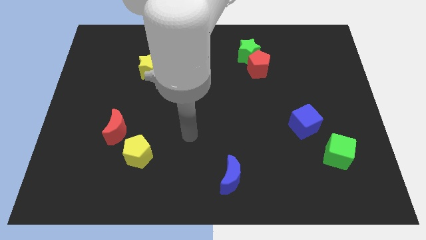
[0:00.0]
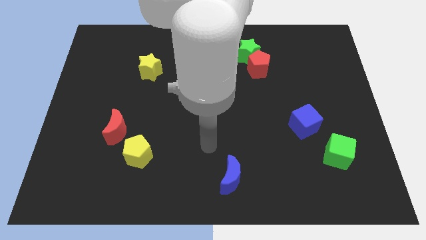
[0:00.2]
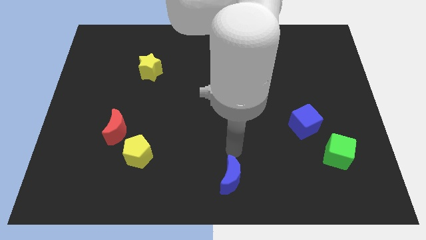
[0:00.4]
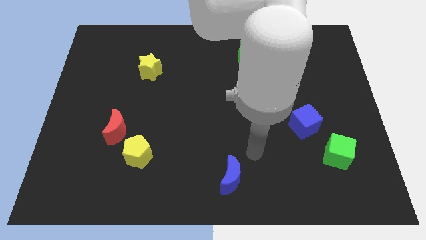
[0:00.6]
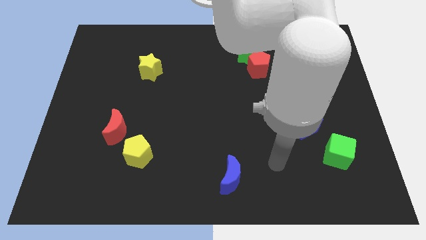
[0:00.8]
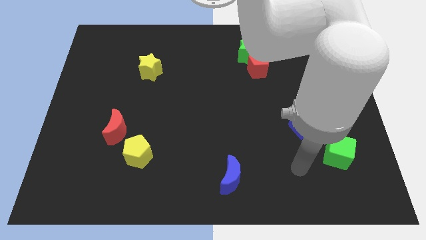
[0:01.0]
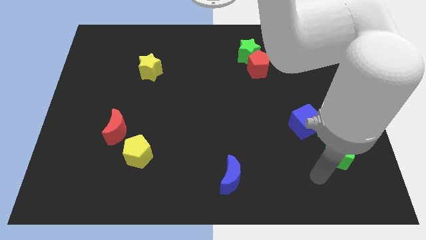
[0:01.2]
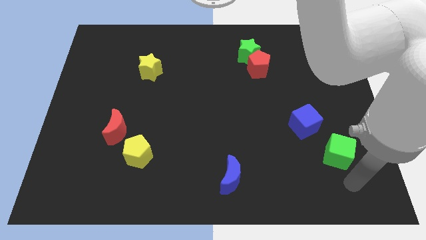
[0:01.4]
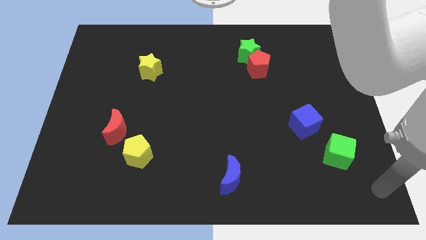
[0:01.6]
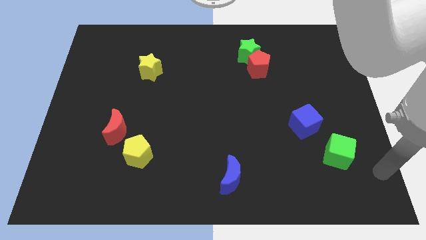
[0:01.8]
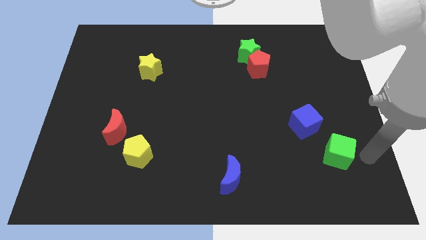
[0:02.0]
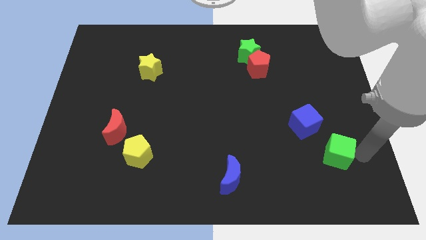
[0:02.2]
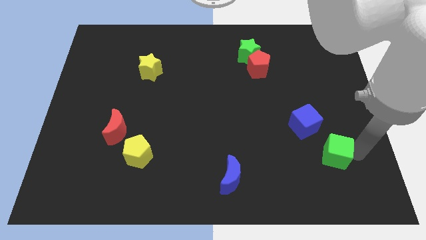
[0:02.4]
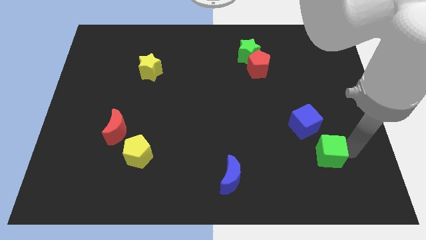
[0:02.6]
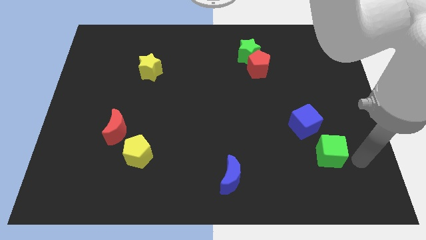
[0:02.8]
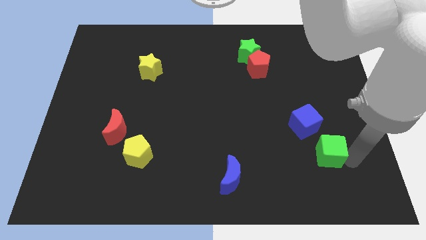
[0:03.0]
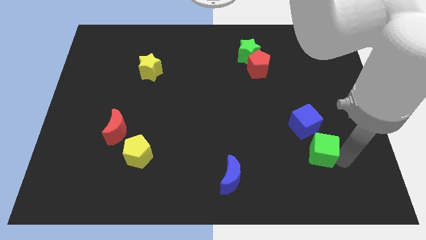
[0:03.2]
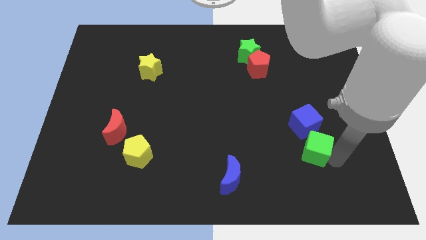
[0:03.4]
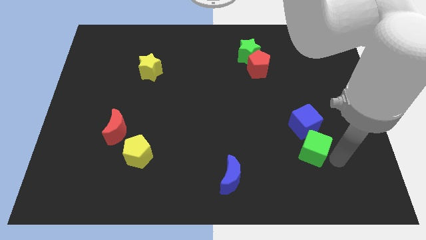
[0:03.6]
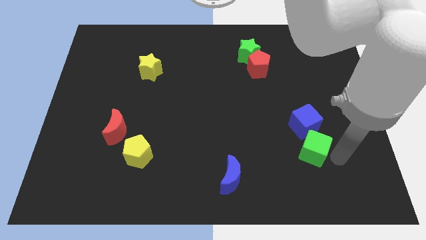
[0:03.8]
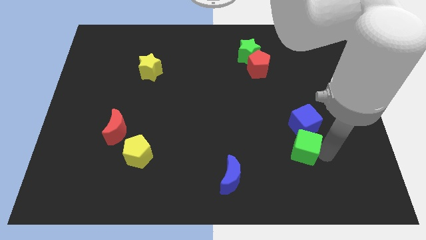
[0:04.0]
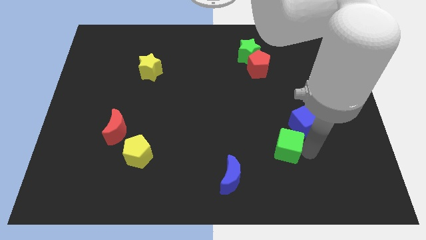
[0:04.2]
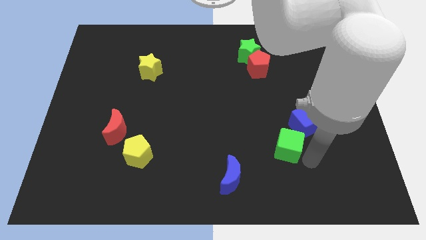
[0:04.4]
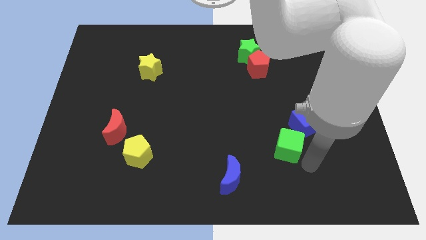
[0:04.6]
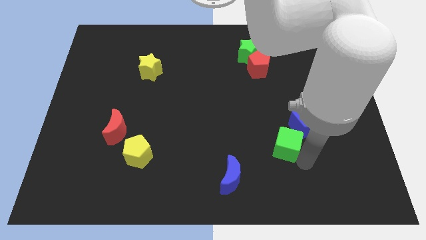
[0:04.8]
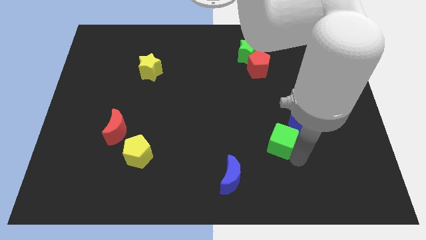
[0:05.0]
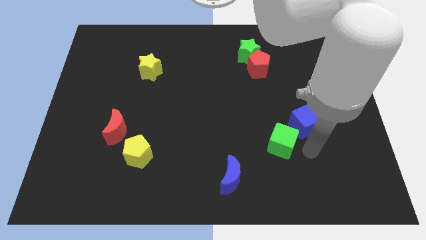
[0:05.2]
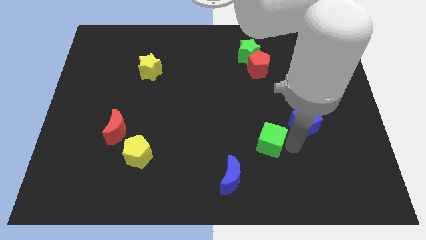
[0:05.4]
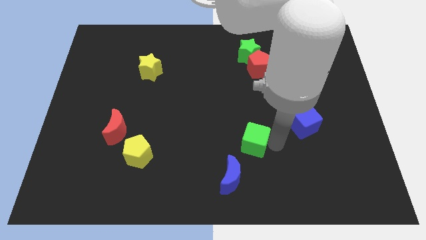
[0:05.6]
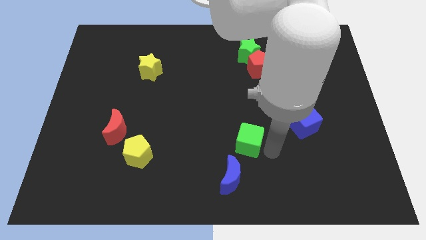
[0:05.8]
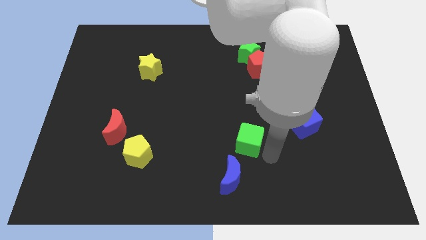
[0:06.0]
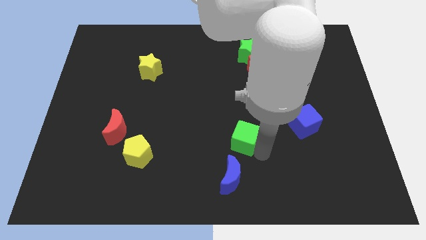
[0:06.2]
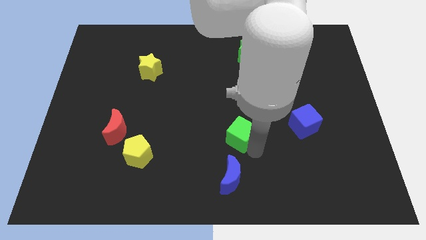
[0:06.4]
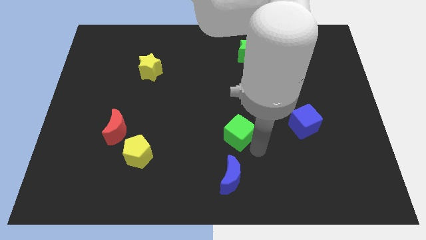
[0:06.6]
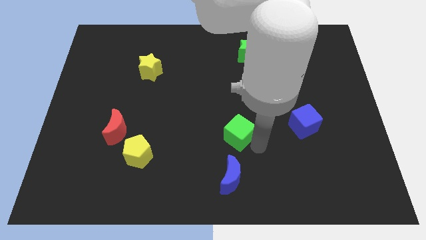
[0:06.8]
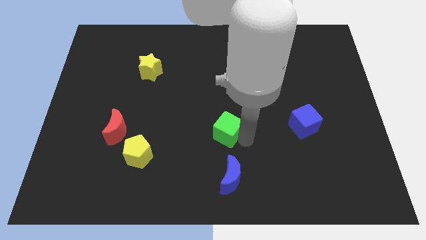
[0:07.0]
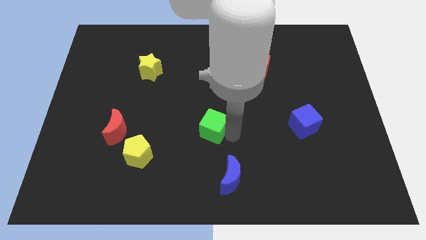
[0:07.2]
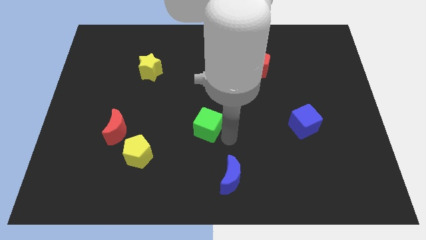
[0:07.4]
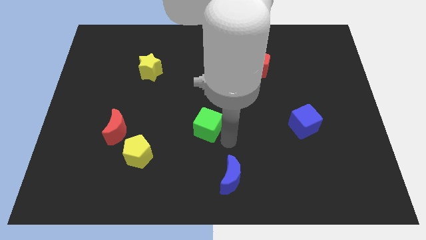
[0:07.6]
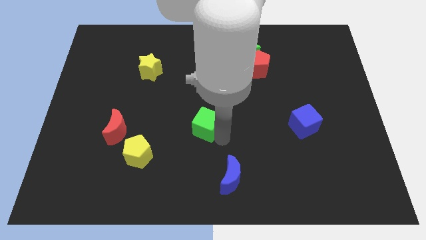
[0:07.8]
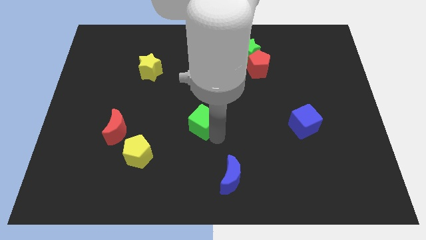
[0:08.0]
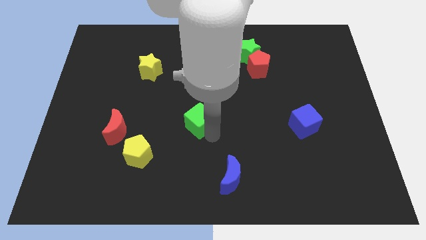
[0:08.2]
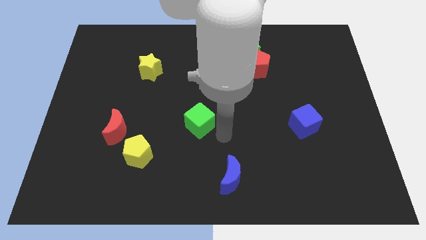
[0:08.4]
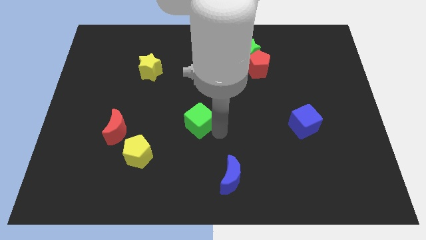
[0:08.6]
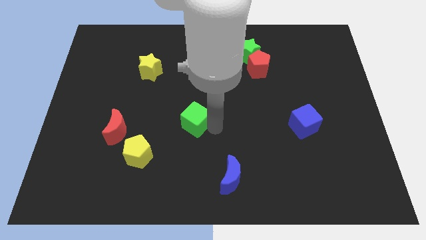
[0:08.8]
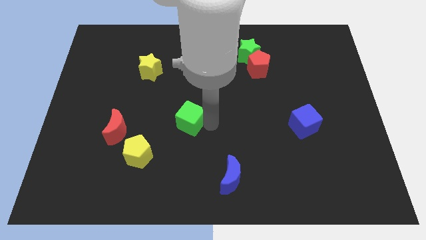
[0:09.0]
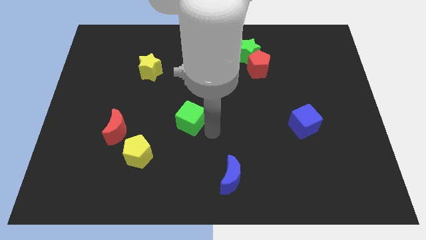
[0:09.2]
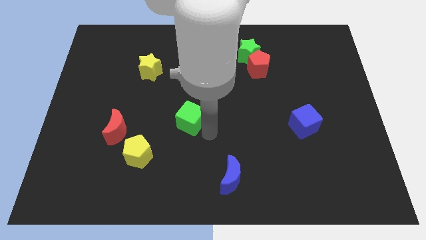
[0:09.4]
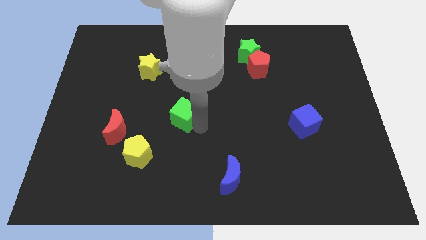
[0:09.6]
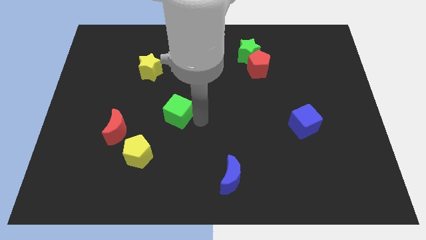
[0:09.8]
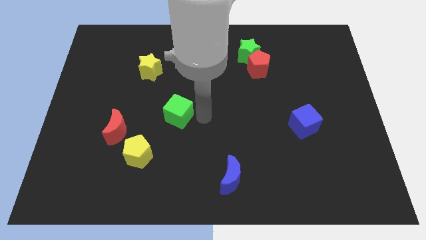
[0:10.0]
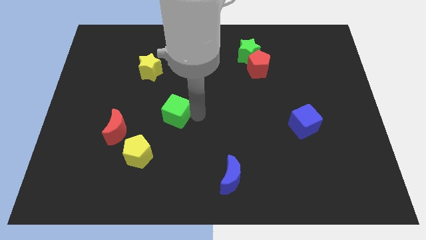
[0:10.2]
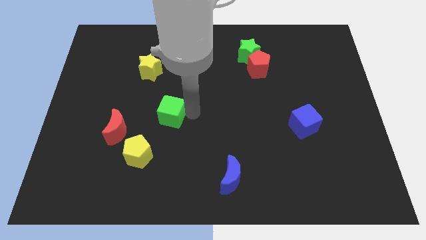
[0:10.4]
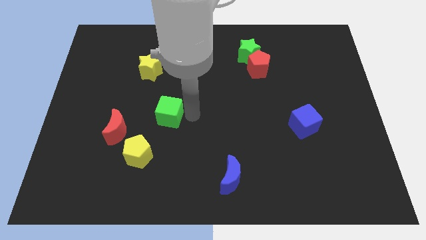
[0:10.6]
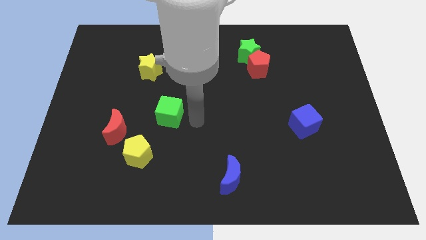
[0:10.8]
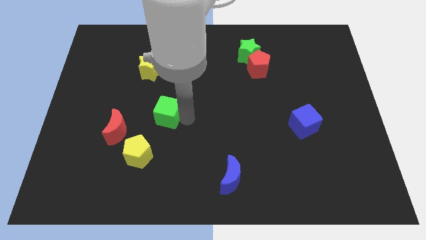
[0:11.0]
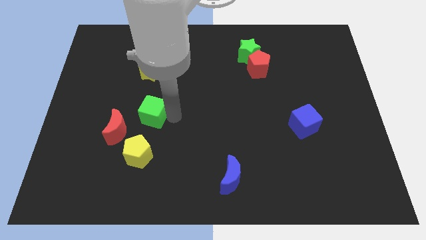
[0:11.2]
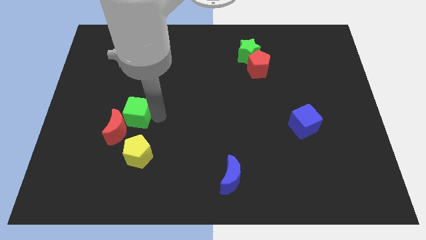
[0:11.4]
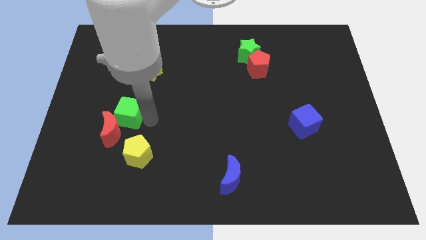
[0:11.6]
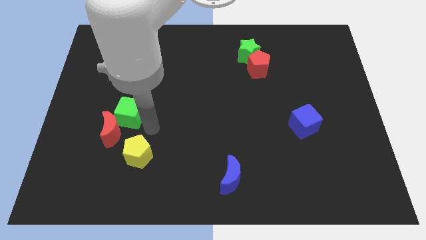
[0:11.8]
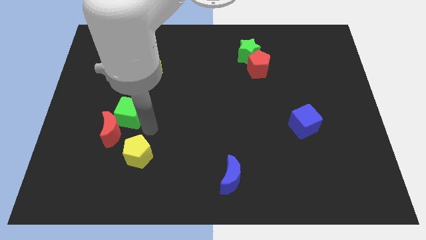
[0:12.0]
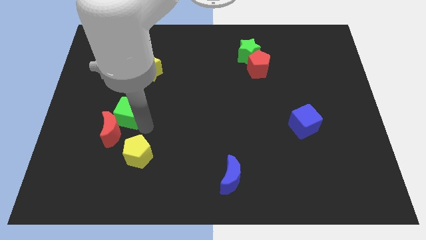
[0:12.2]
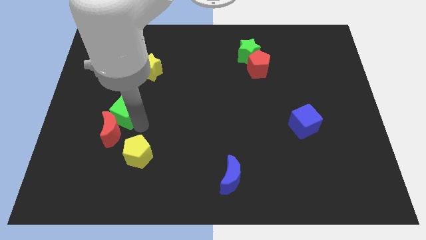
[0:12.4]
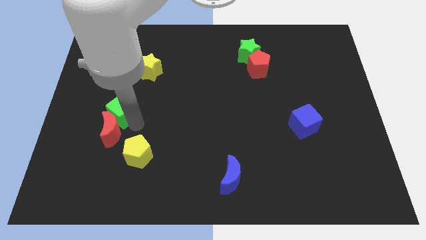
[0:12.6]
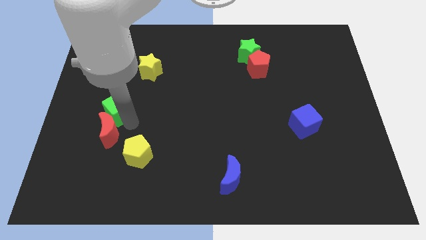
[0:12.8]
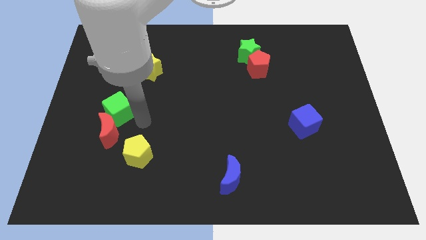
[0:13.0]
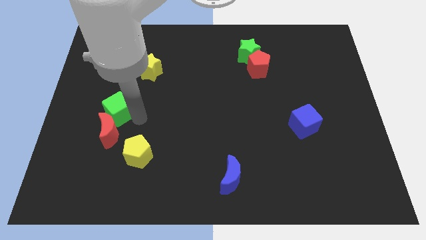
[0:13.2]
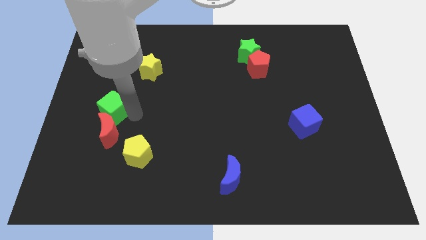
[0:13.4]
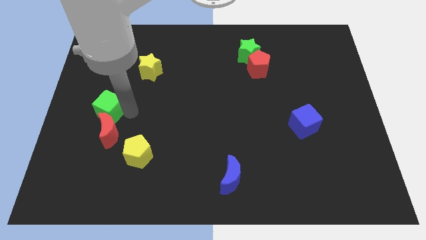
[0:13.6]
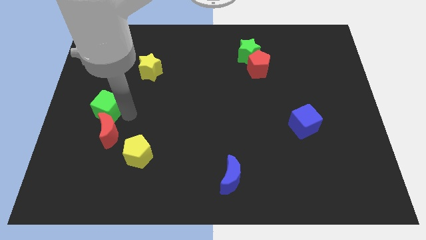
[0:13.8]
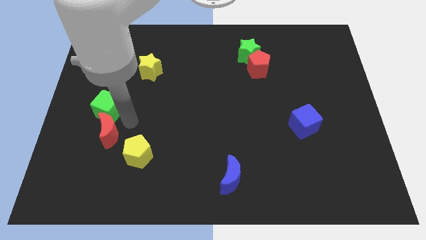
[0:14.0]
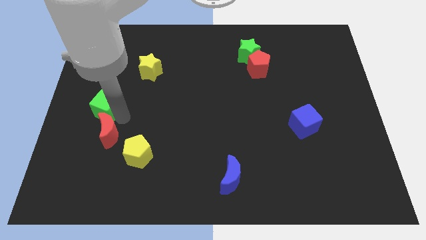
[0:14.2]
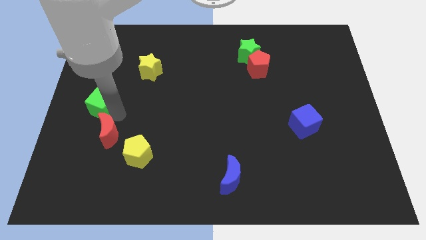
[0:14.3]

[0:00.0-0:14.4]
slide the green cube to the left side of the board
